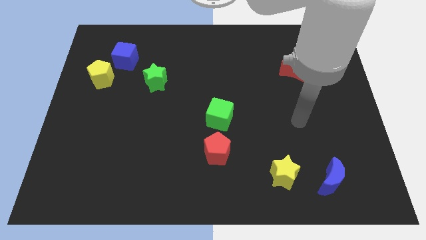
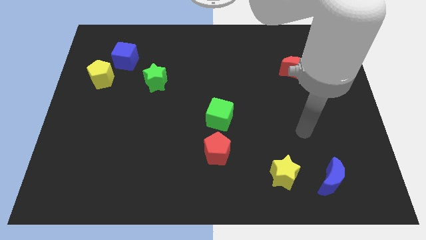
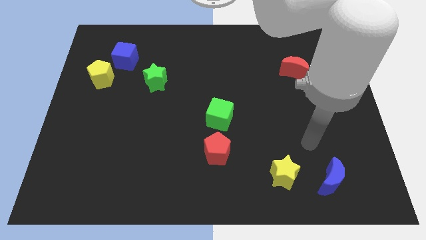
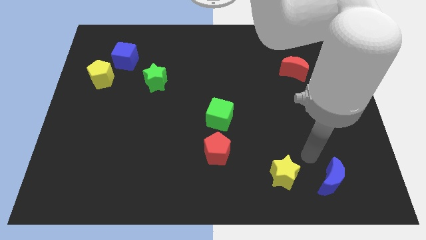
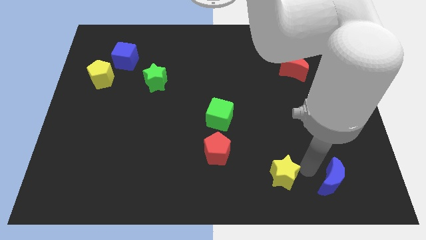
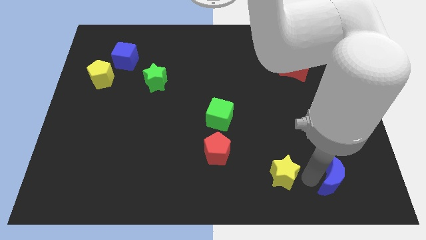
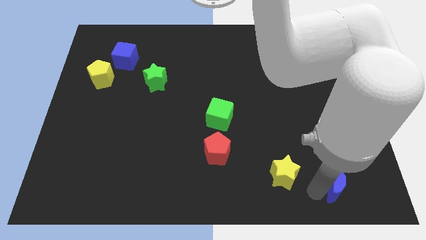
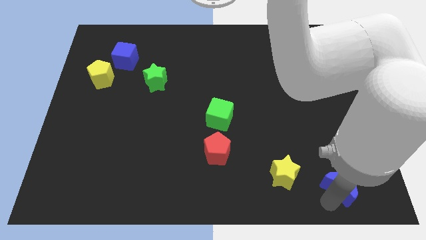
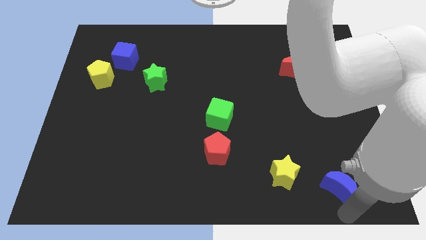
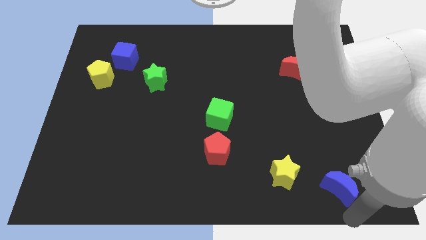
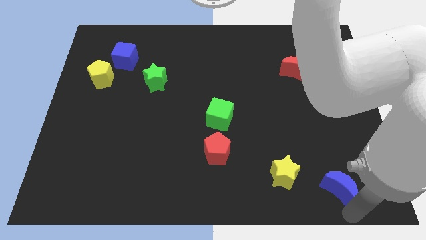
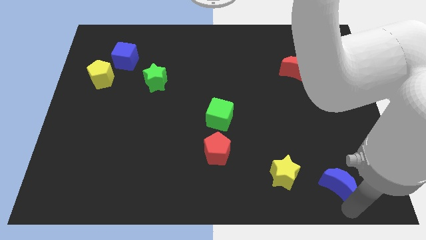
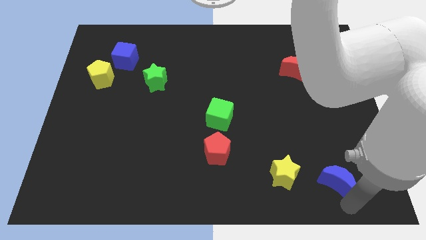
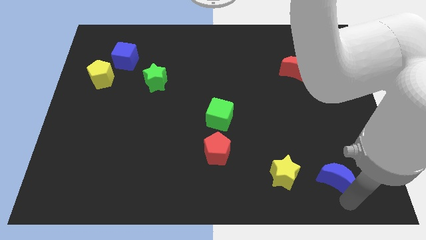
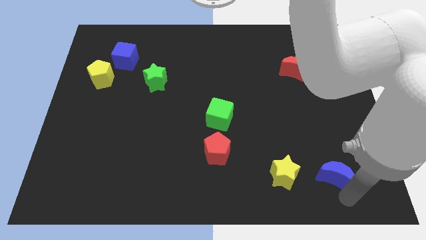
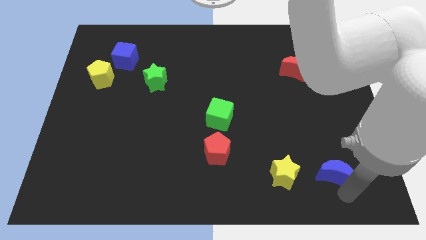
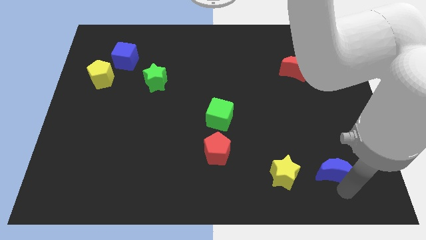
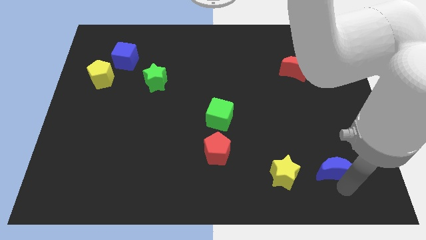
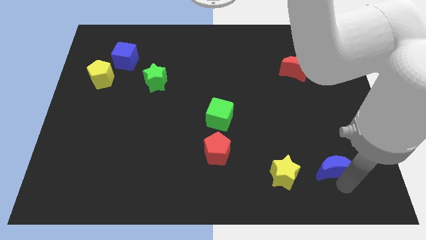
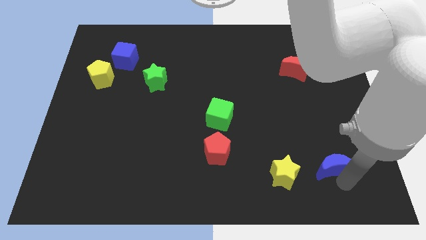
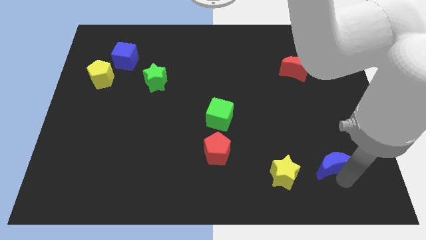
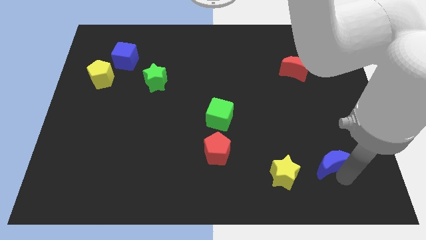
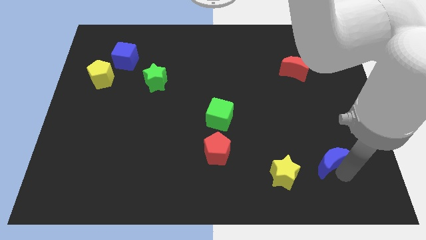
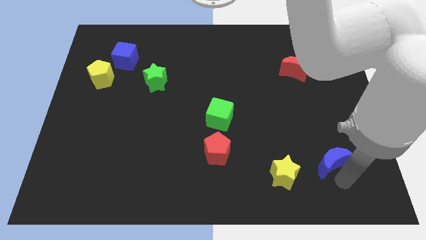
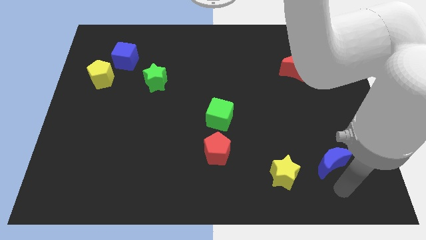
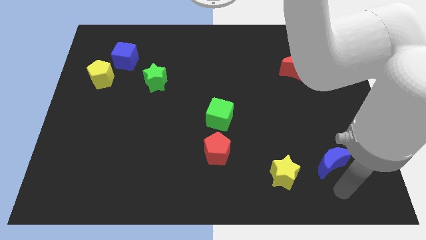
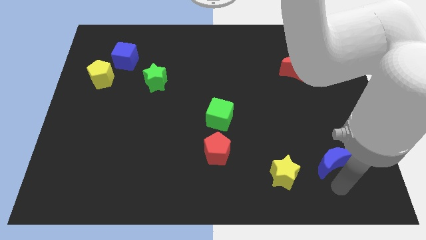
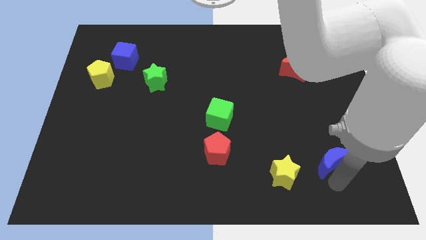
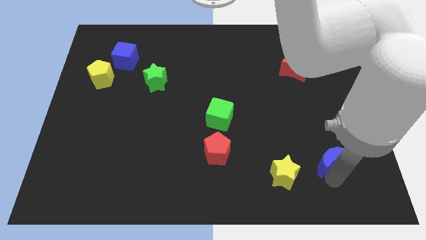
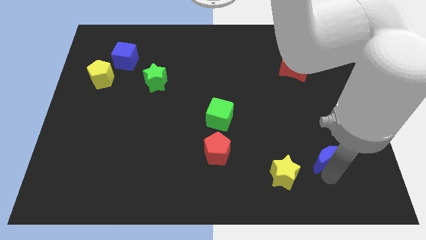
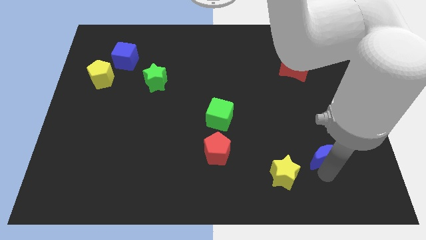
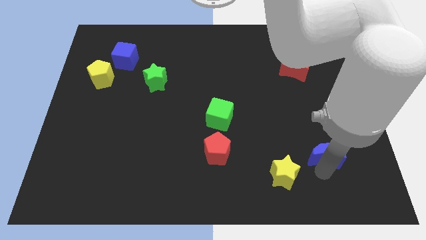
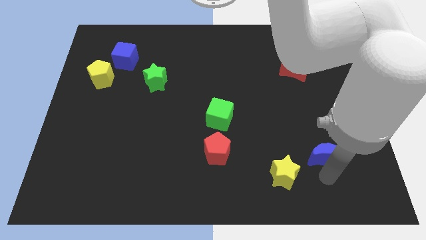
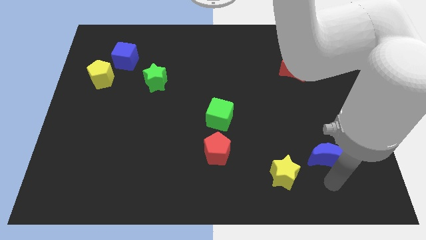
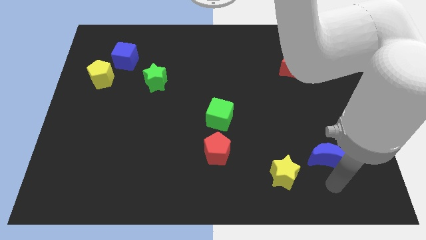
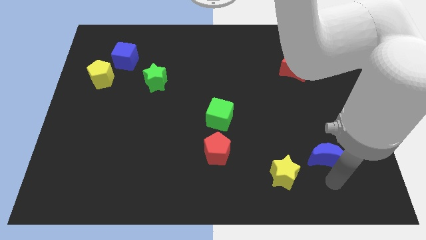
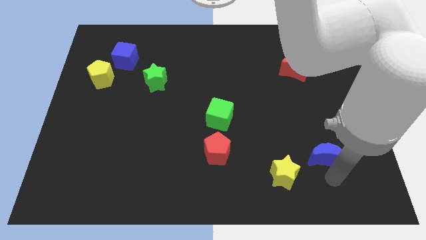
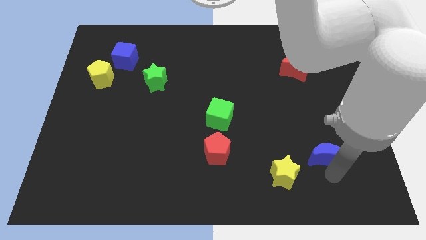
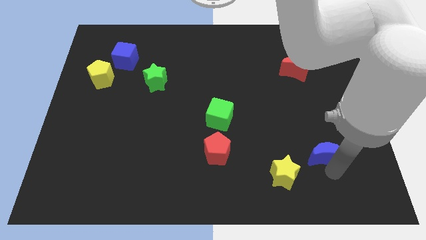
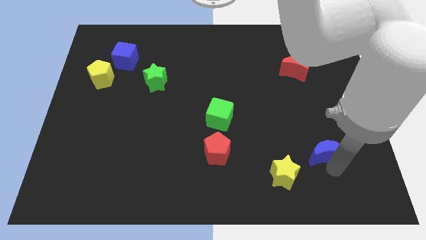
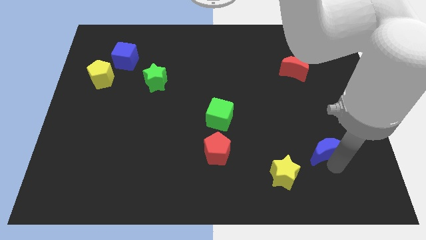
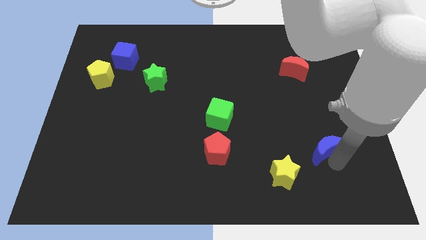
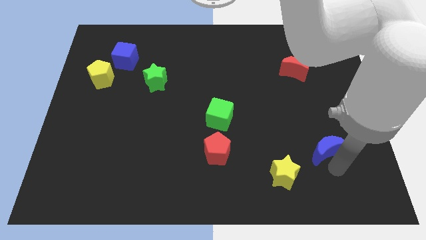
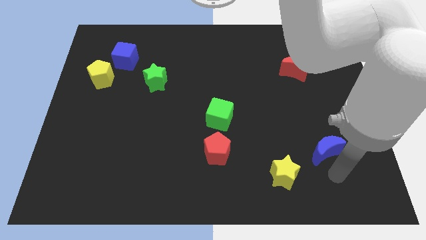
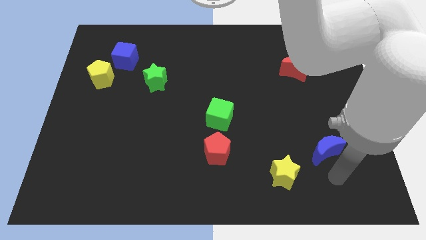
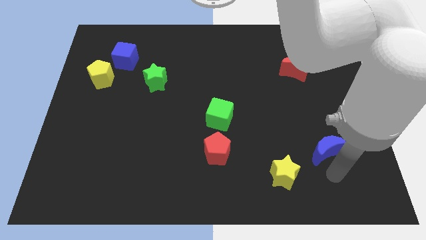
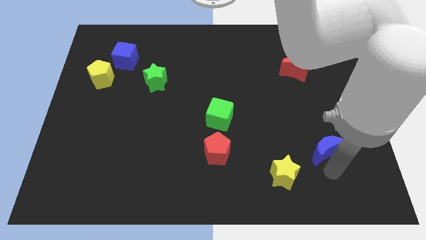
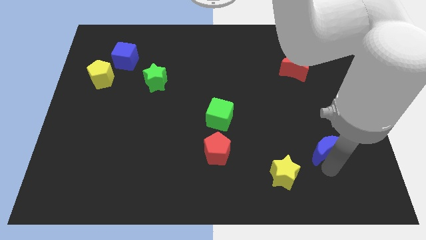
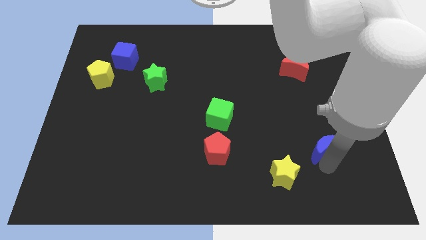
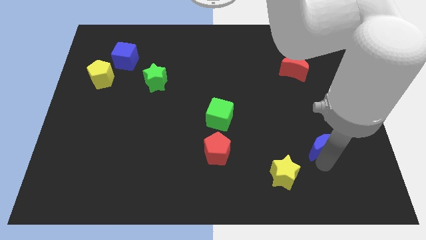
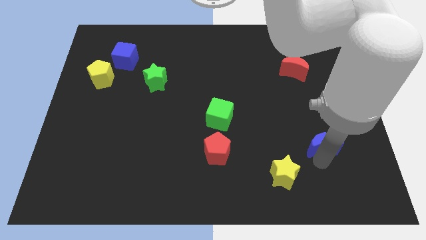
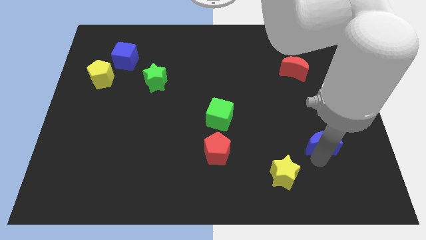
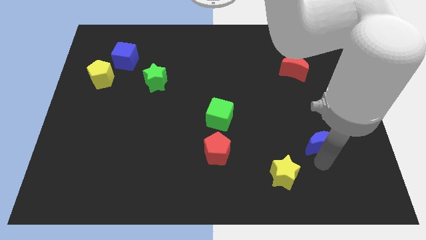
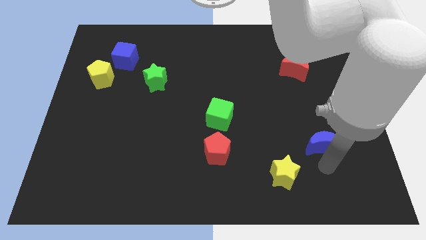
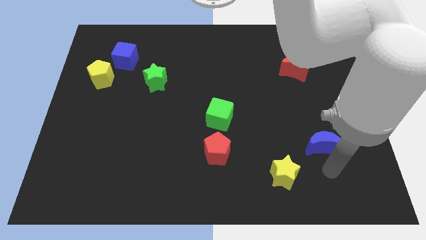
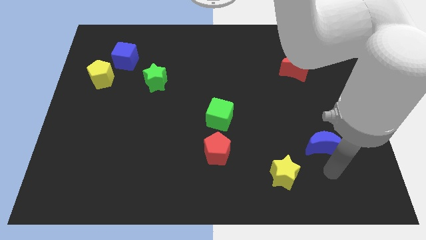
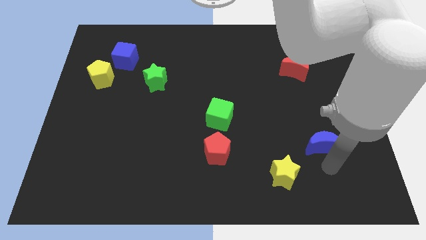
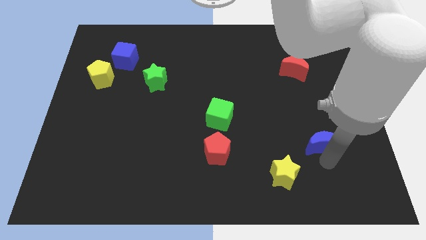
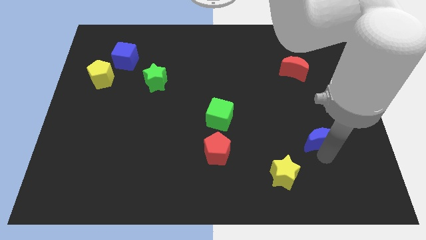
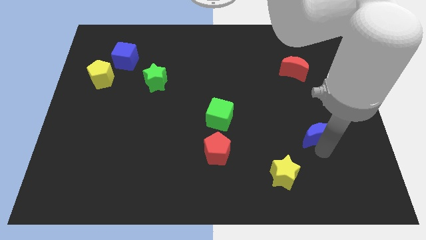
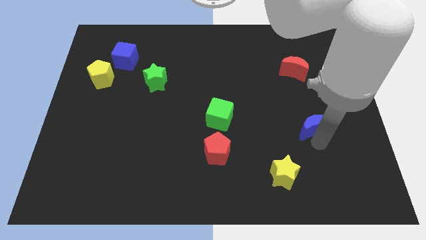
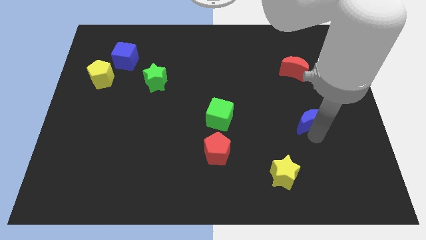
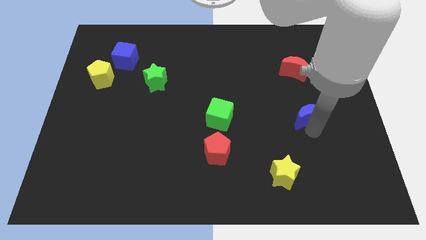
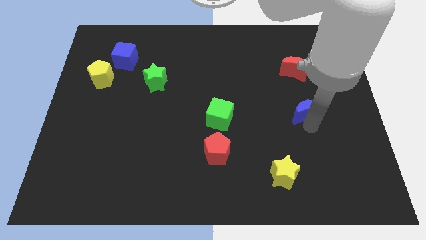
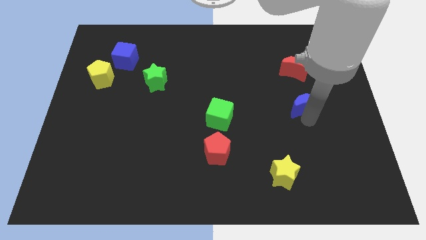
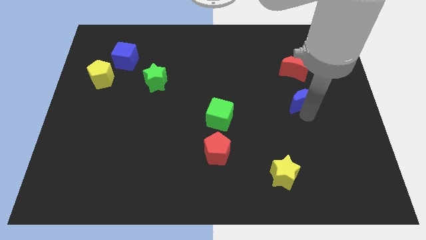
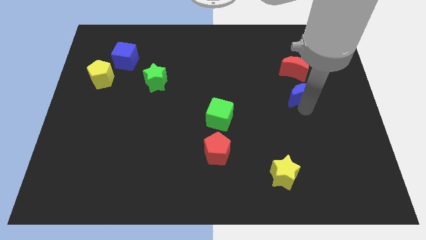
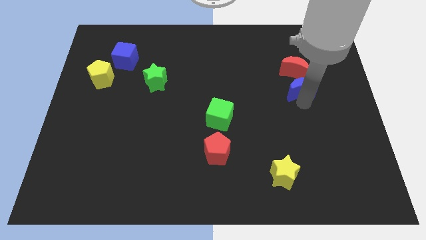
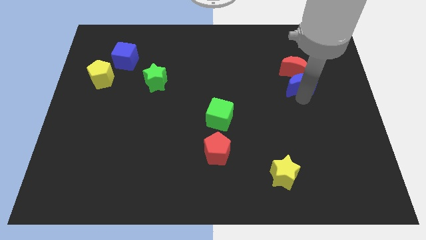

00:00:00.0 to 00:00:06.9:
slide the blue moon to the red moon

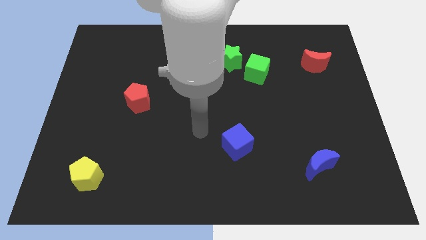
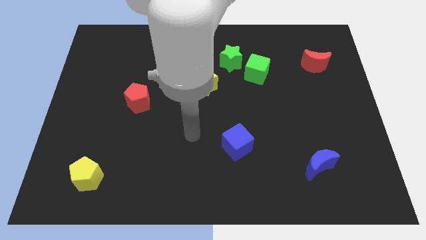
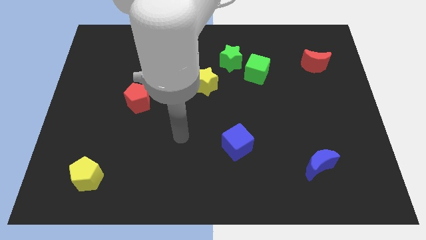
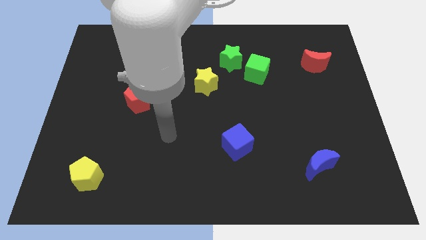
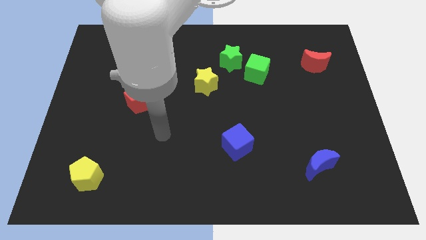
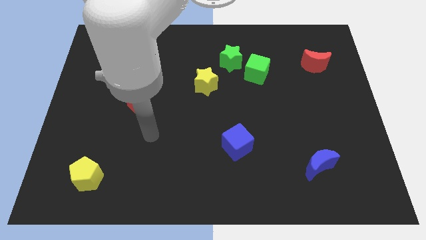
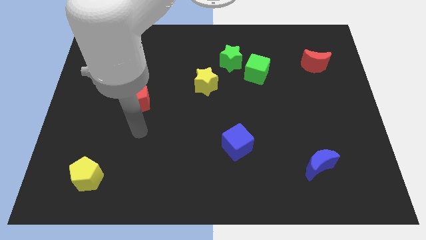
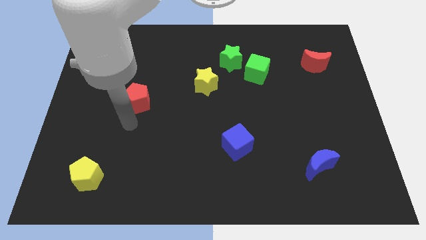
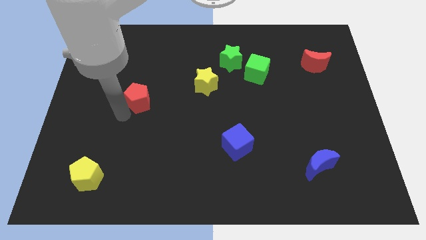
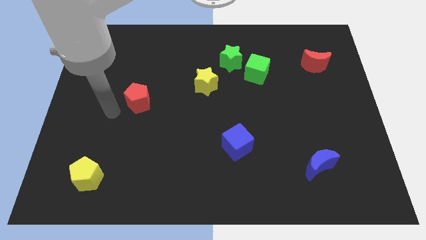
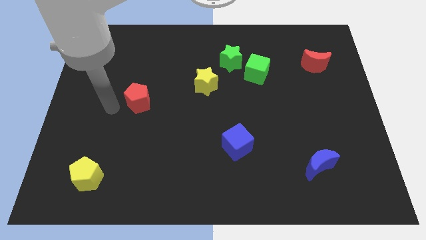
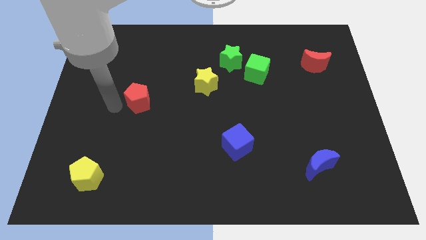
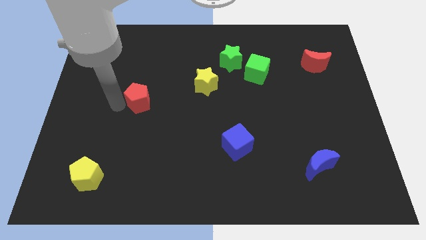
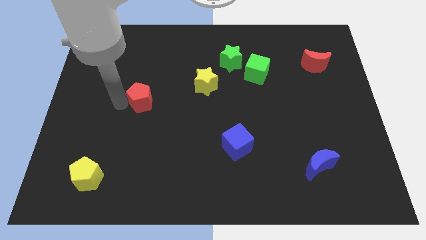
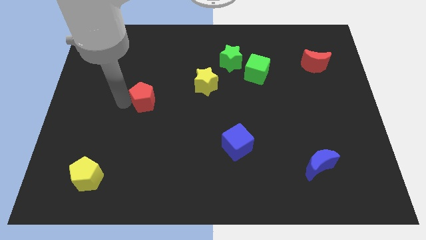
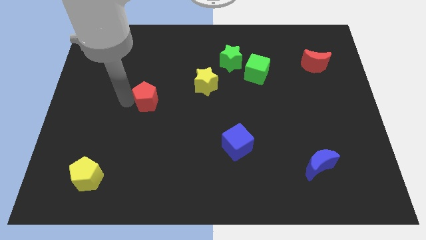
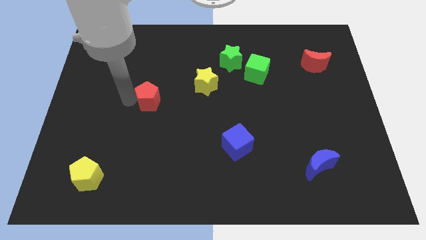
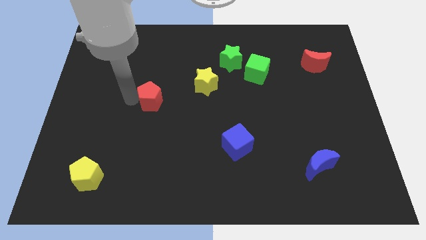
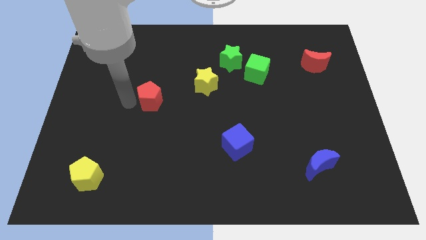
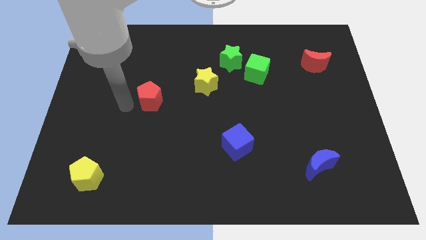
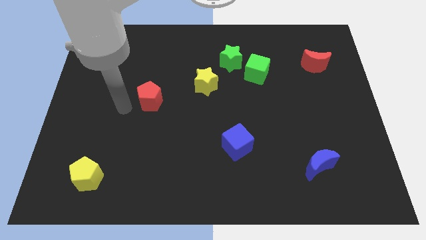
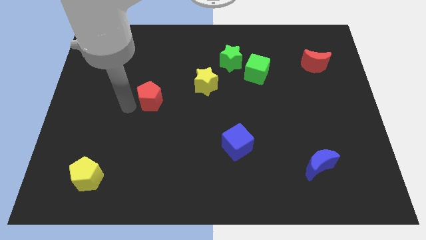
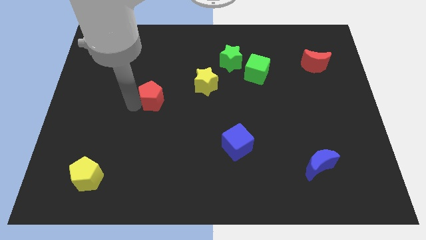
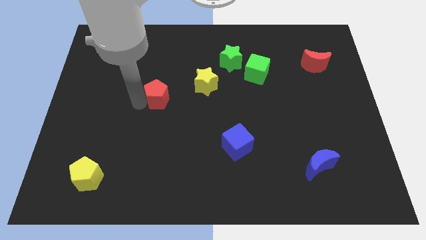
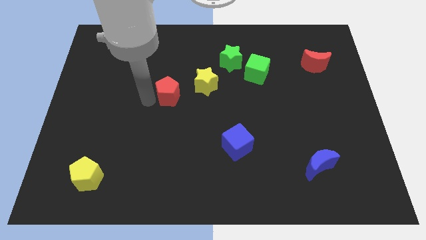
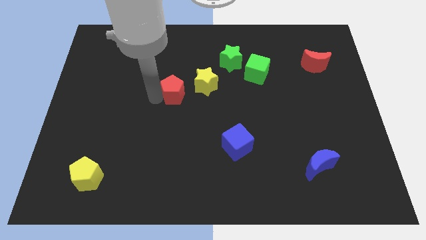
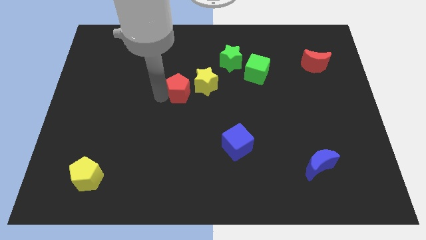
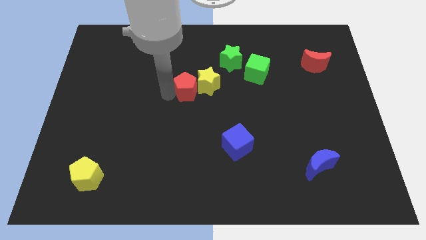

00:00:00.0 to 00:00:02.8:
move the red pentagon close to the yellow star
